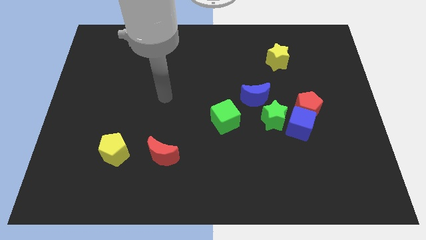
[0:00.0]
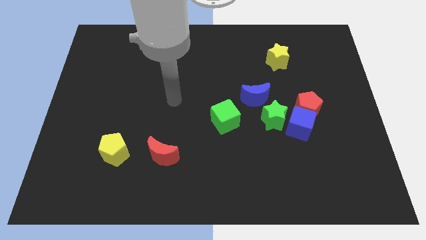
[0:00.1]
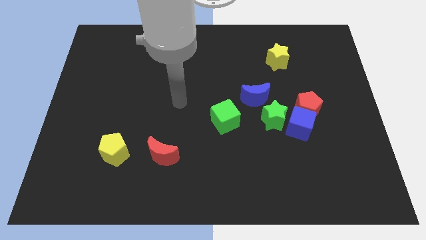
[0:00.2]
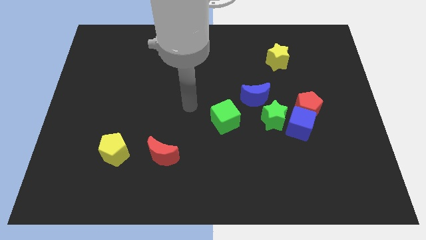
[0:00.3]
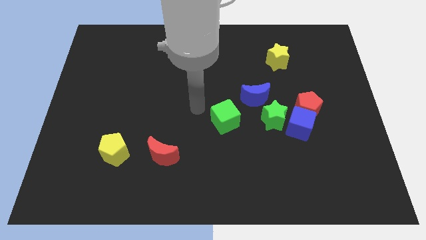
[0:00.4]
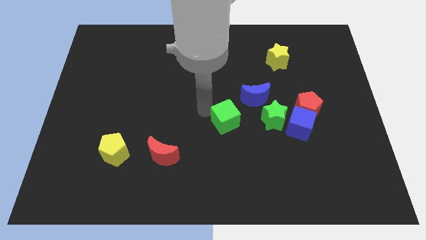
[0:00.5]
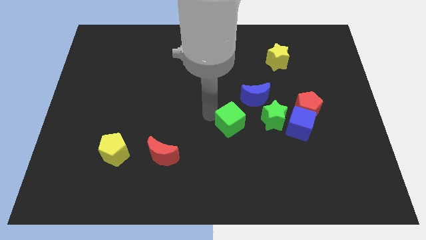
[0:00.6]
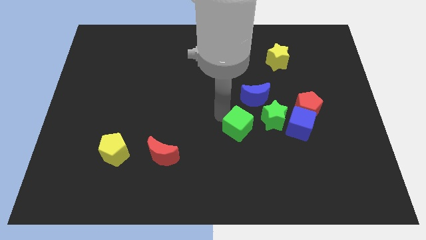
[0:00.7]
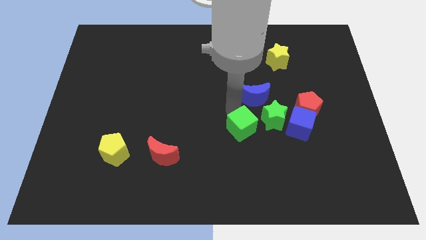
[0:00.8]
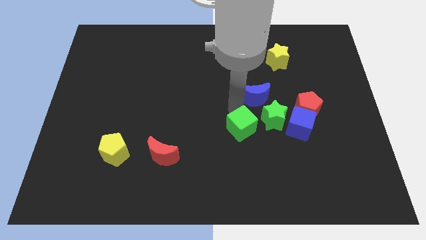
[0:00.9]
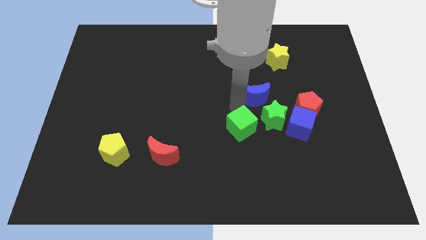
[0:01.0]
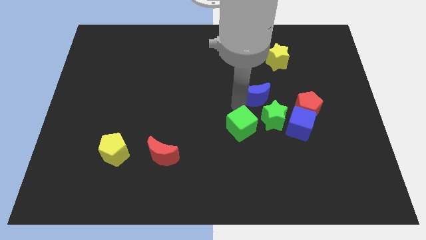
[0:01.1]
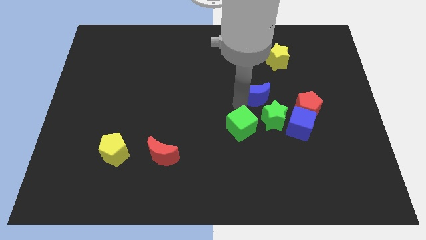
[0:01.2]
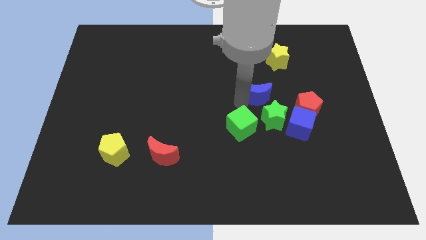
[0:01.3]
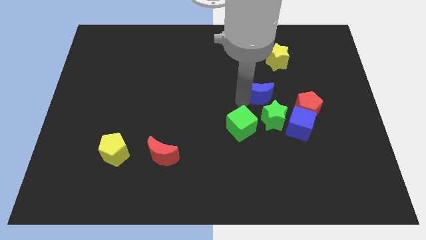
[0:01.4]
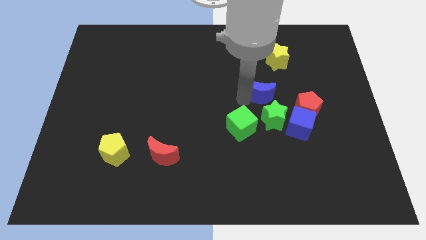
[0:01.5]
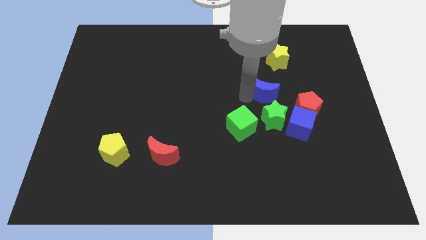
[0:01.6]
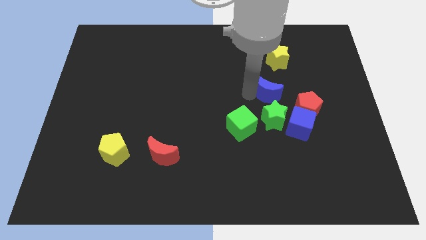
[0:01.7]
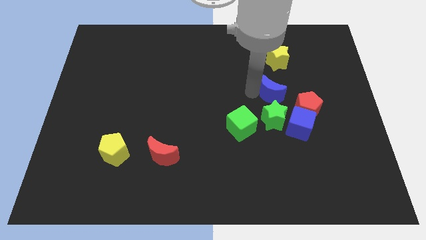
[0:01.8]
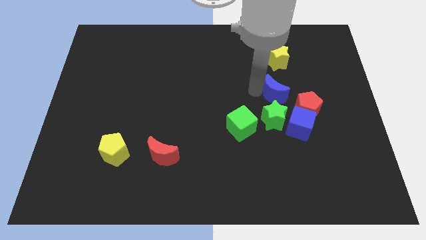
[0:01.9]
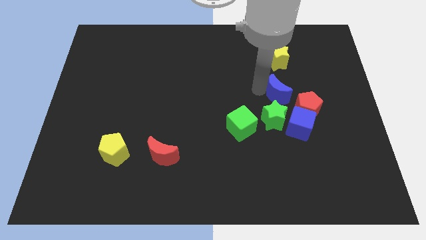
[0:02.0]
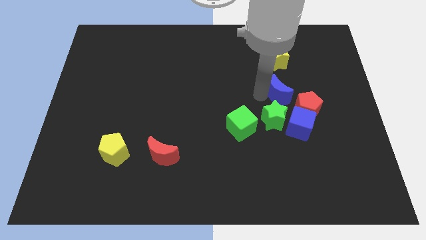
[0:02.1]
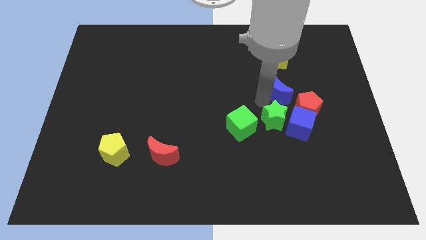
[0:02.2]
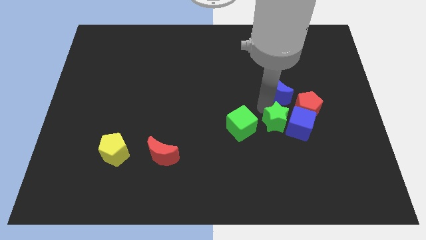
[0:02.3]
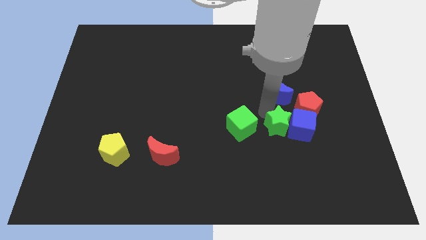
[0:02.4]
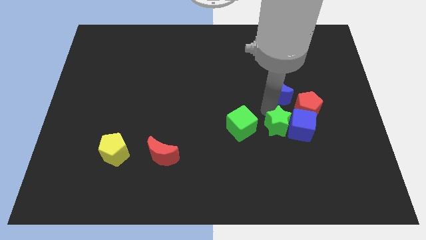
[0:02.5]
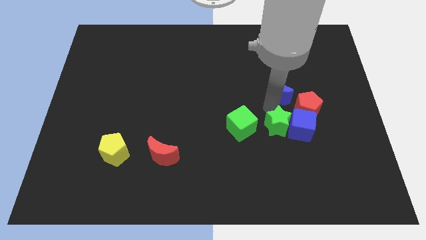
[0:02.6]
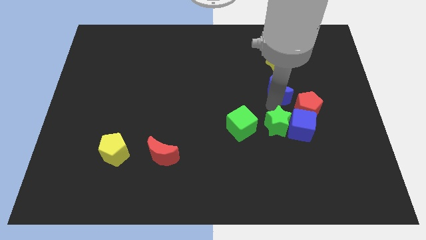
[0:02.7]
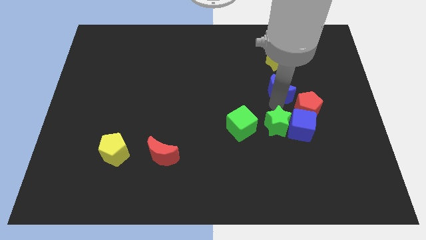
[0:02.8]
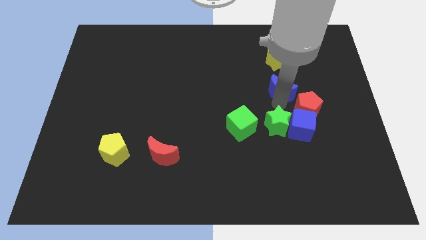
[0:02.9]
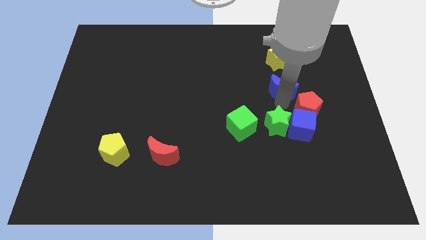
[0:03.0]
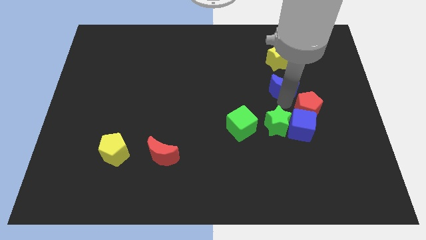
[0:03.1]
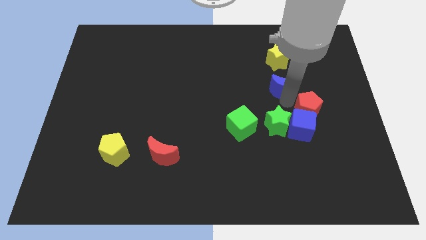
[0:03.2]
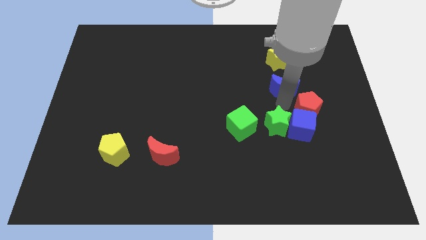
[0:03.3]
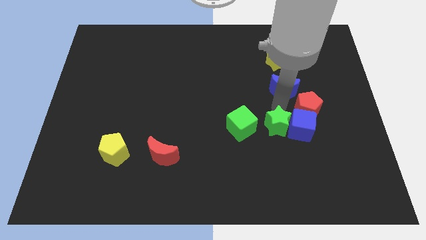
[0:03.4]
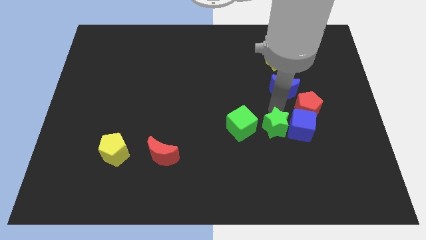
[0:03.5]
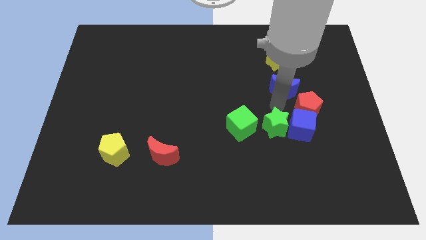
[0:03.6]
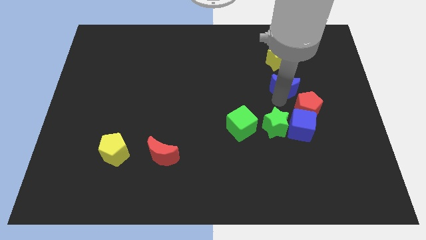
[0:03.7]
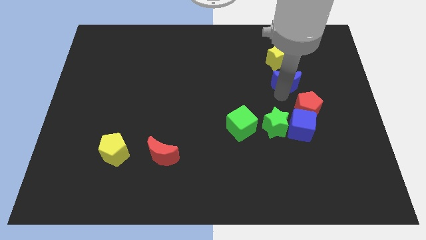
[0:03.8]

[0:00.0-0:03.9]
push the blue moon diagonally upwards and to the right a little

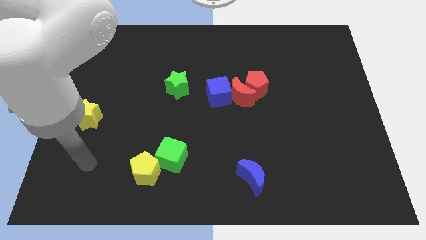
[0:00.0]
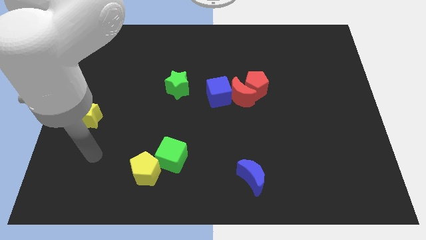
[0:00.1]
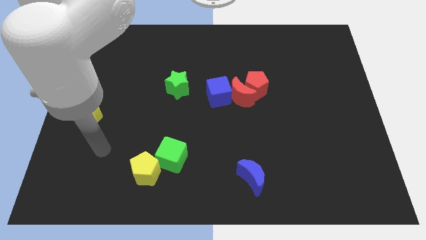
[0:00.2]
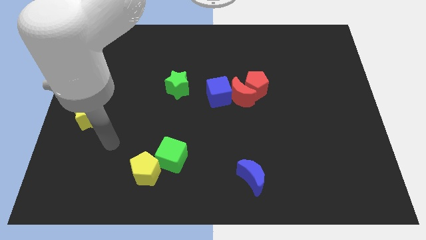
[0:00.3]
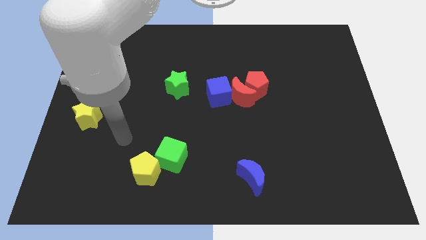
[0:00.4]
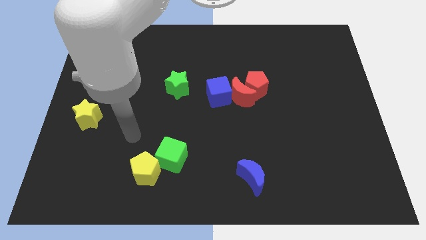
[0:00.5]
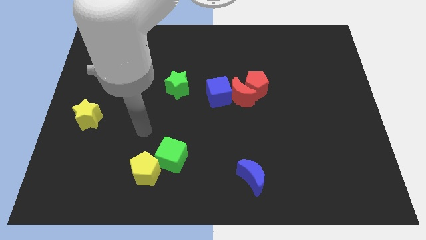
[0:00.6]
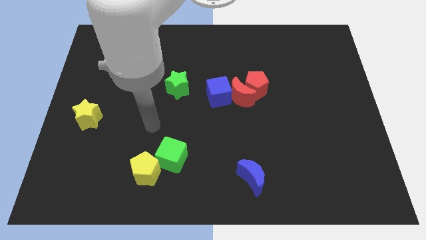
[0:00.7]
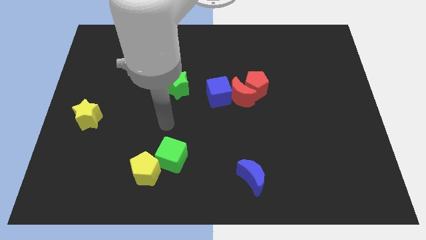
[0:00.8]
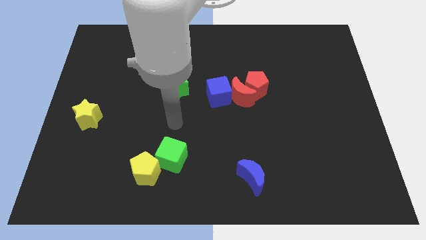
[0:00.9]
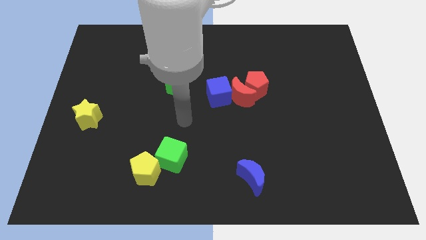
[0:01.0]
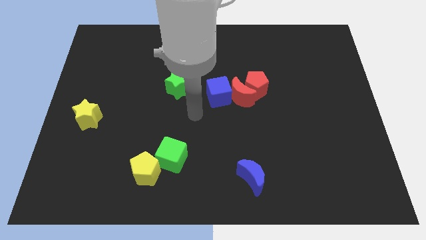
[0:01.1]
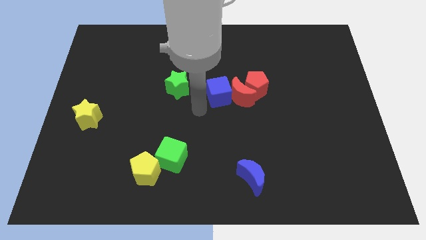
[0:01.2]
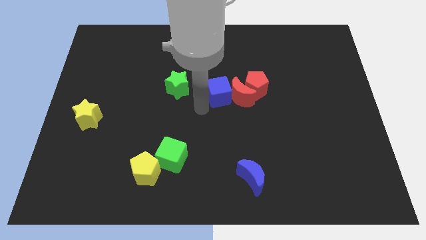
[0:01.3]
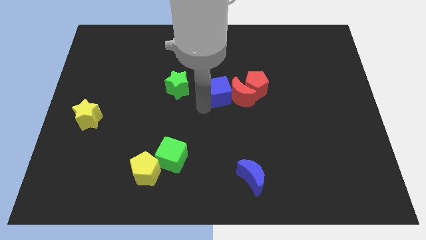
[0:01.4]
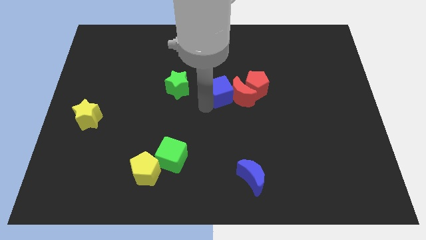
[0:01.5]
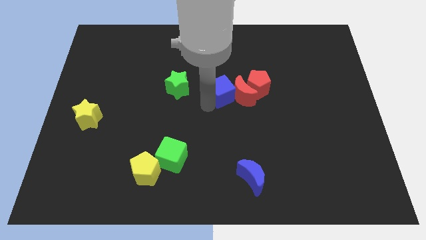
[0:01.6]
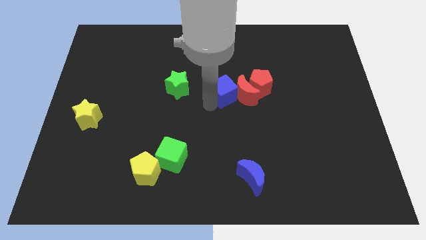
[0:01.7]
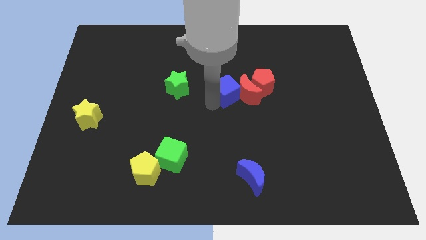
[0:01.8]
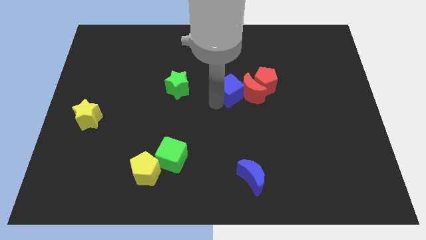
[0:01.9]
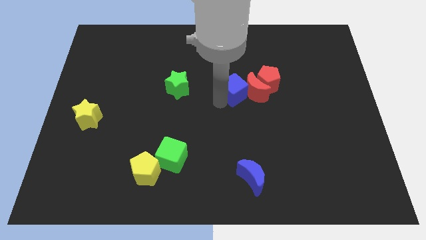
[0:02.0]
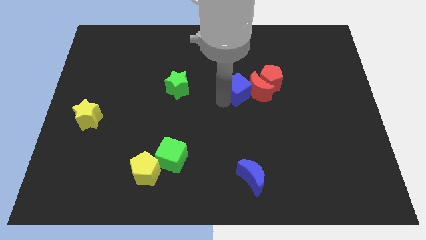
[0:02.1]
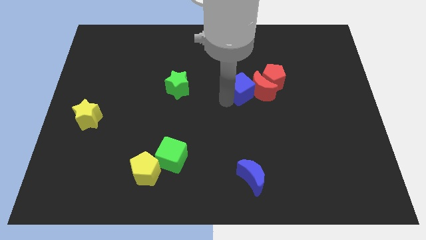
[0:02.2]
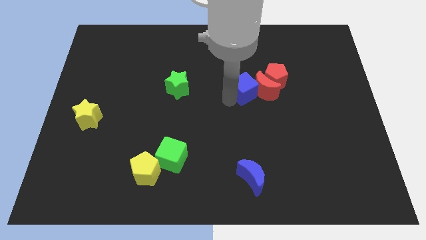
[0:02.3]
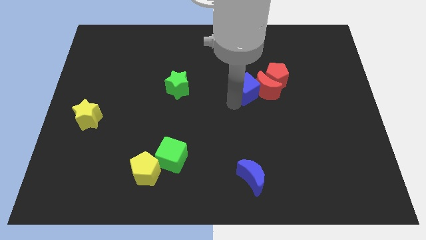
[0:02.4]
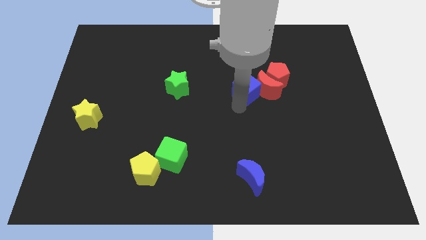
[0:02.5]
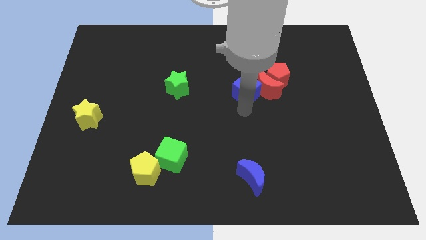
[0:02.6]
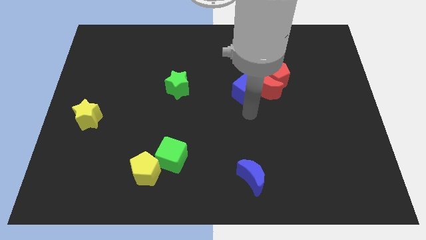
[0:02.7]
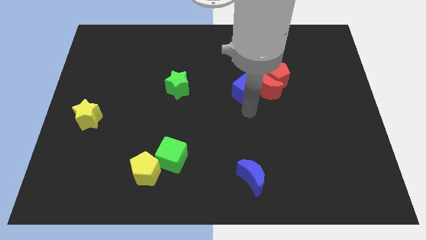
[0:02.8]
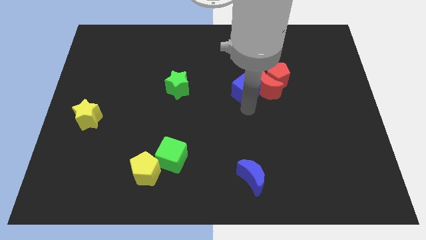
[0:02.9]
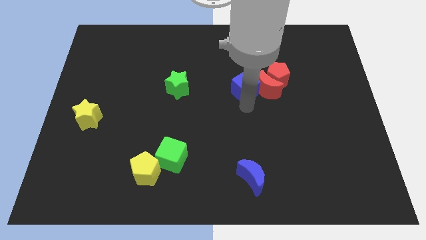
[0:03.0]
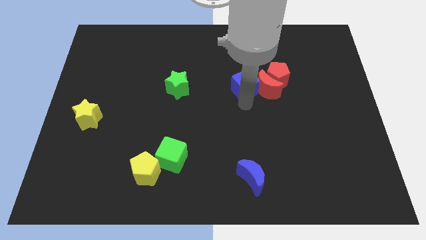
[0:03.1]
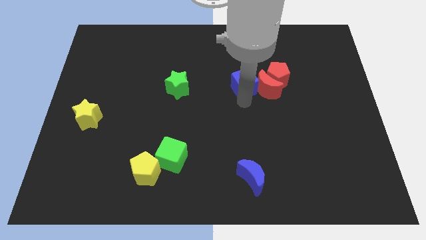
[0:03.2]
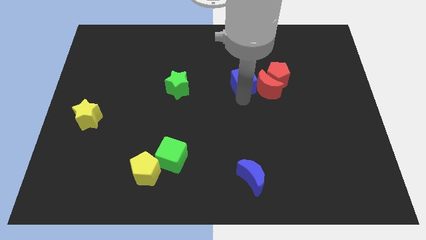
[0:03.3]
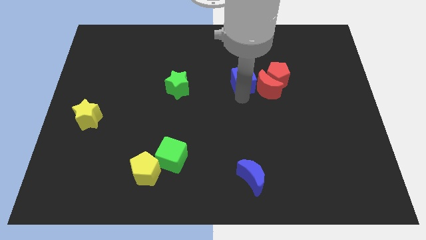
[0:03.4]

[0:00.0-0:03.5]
move the blue cube up and then to the right a bit

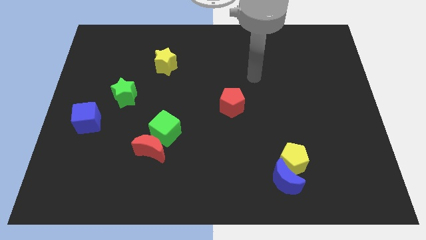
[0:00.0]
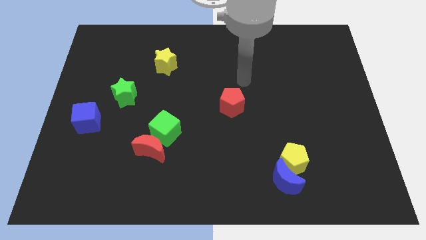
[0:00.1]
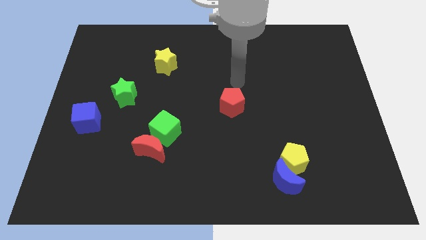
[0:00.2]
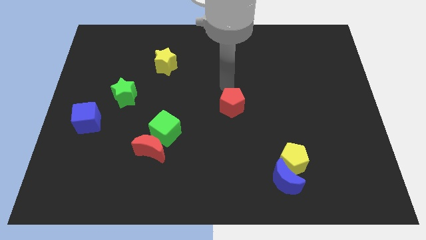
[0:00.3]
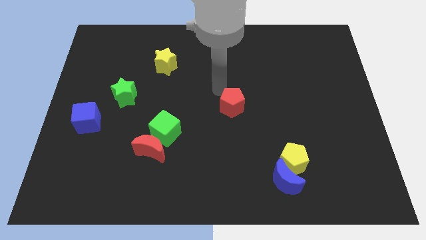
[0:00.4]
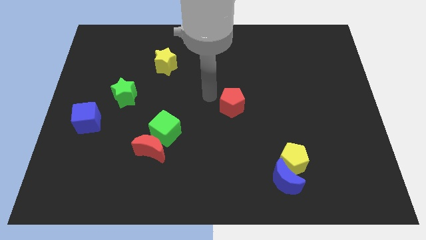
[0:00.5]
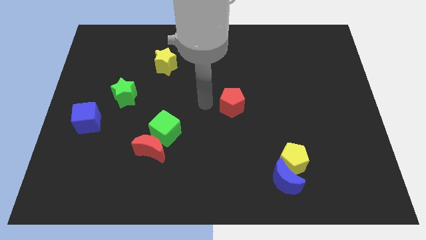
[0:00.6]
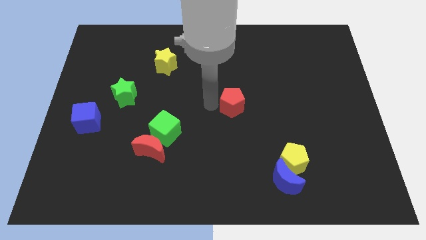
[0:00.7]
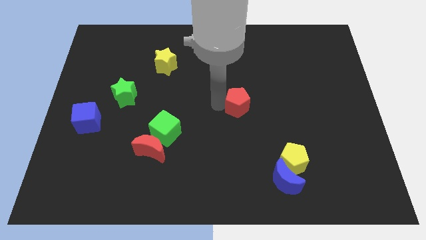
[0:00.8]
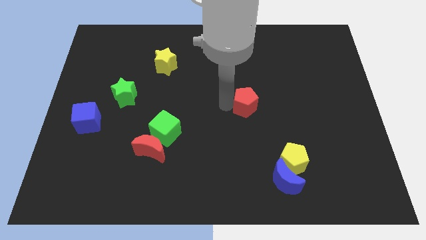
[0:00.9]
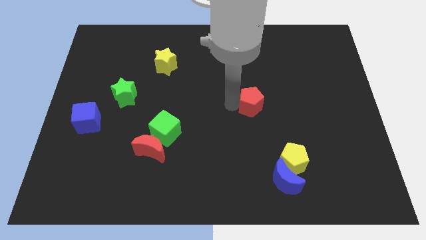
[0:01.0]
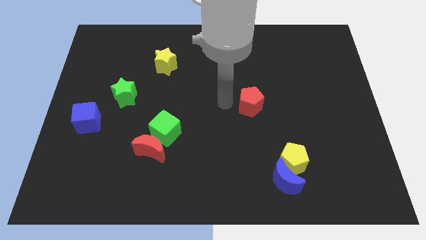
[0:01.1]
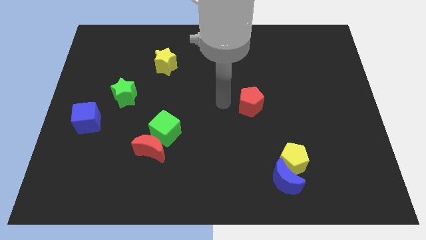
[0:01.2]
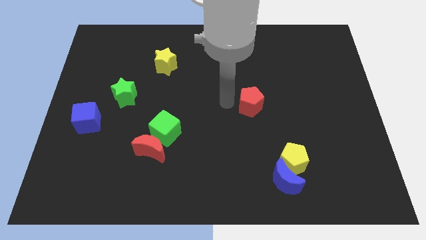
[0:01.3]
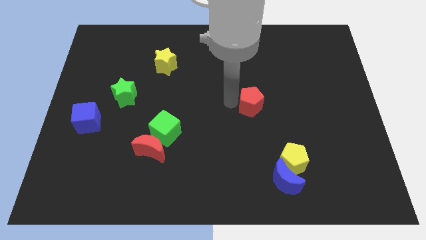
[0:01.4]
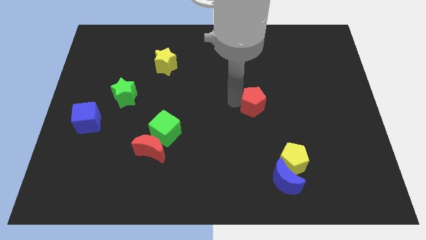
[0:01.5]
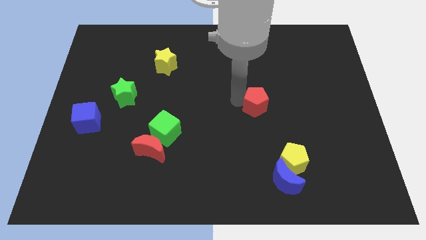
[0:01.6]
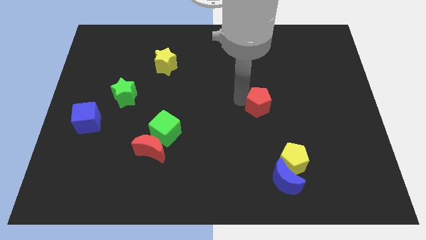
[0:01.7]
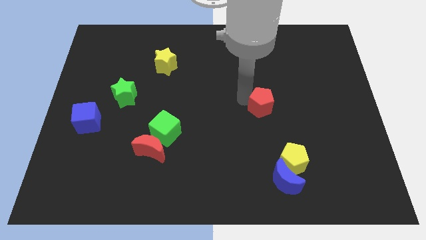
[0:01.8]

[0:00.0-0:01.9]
push the red pentagon slightly right
